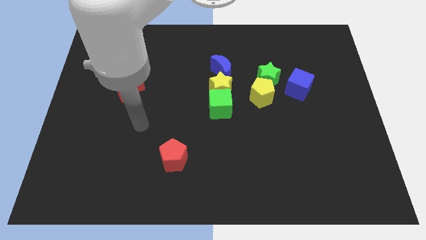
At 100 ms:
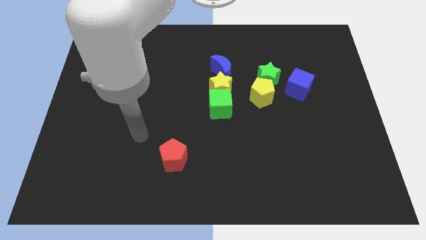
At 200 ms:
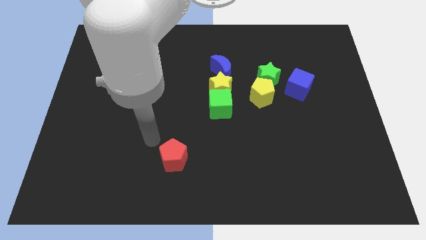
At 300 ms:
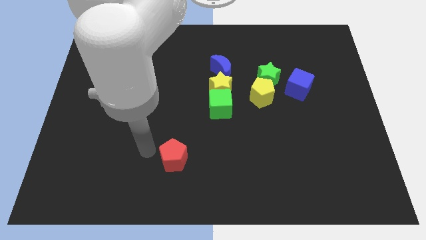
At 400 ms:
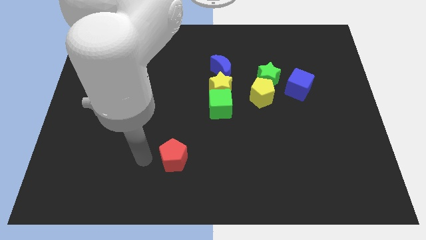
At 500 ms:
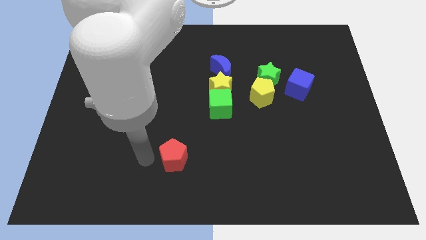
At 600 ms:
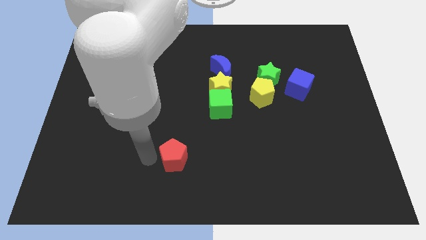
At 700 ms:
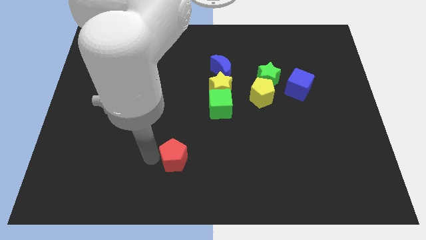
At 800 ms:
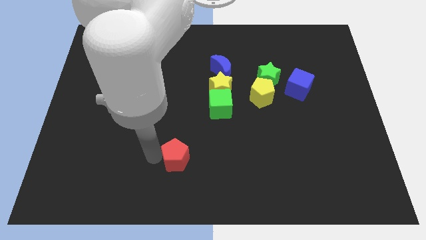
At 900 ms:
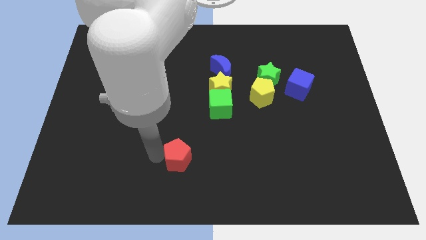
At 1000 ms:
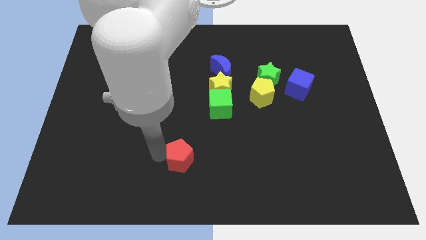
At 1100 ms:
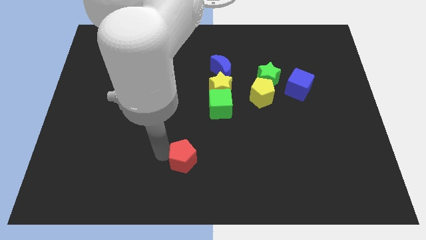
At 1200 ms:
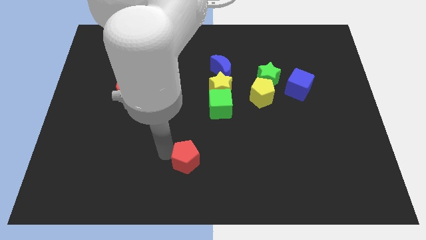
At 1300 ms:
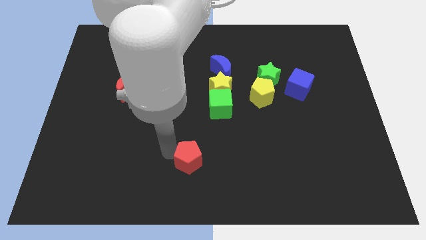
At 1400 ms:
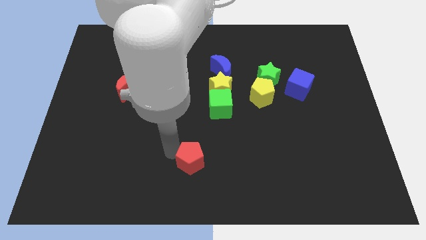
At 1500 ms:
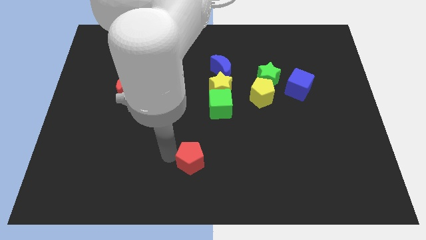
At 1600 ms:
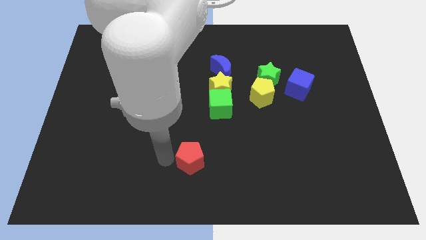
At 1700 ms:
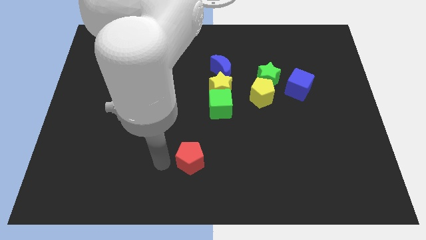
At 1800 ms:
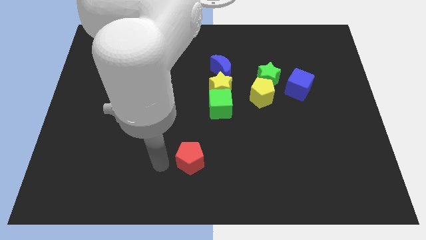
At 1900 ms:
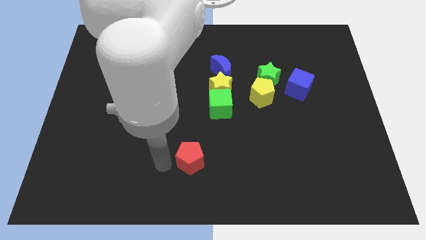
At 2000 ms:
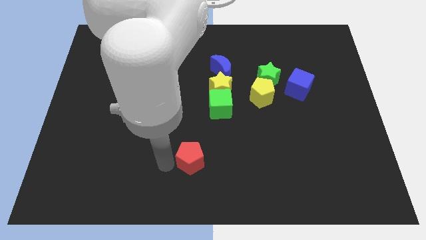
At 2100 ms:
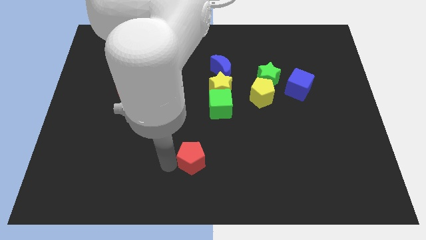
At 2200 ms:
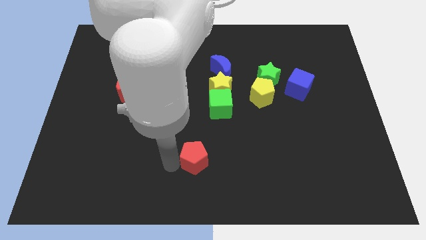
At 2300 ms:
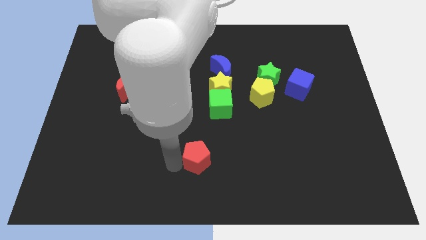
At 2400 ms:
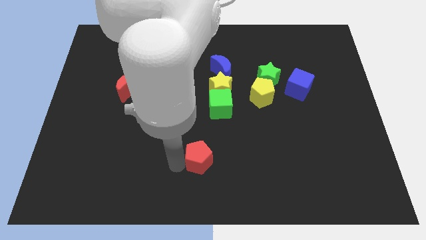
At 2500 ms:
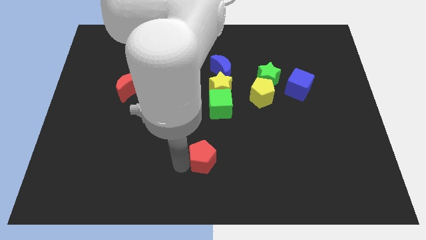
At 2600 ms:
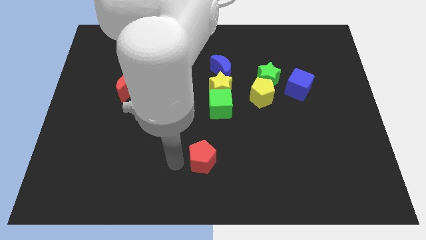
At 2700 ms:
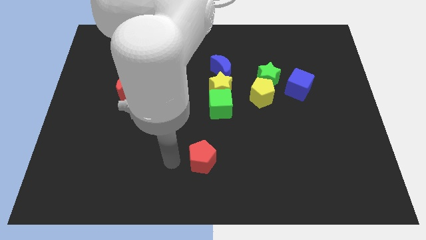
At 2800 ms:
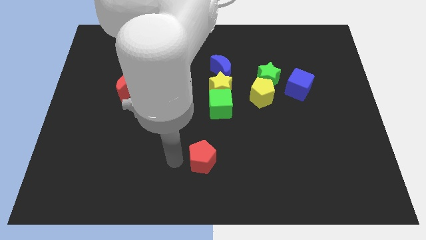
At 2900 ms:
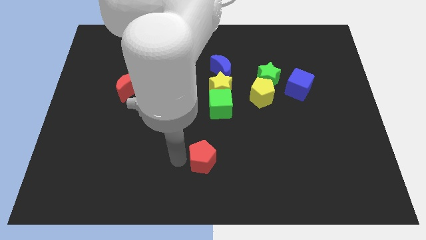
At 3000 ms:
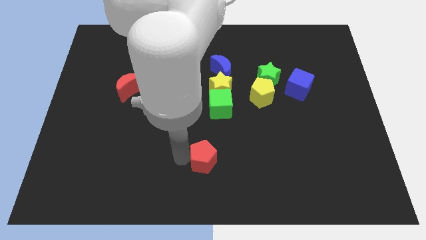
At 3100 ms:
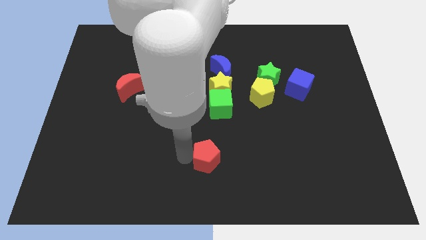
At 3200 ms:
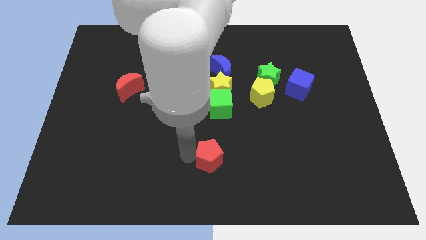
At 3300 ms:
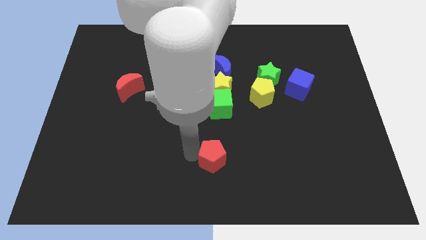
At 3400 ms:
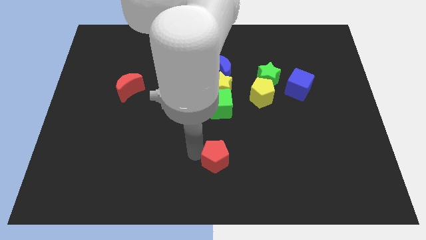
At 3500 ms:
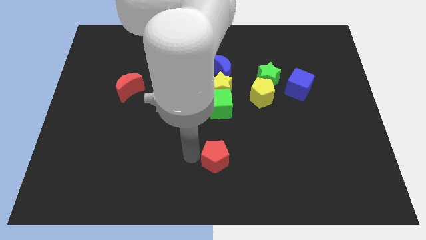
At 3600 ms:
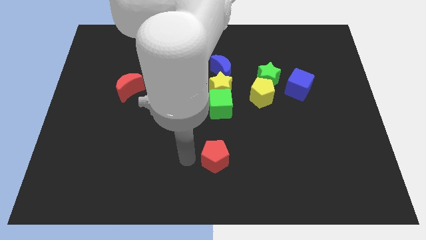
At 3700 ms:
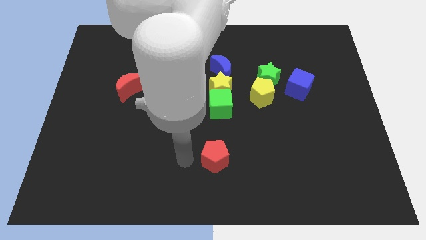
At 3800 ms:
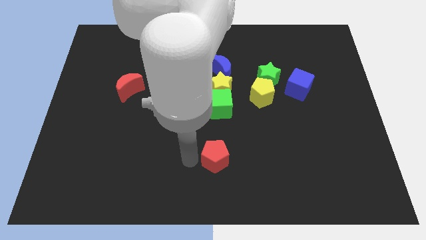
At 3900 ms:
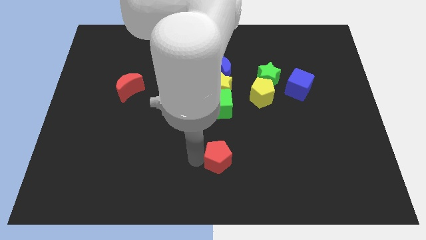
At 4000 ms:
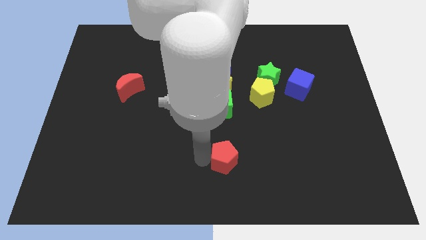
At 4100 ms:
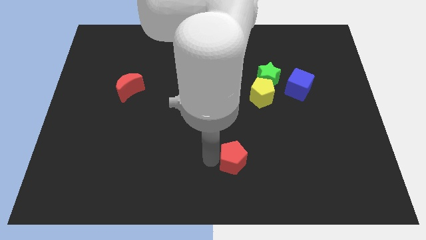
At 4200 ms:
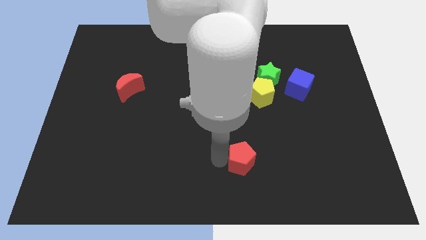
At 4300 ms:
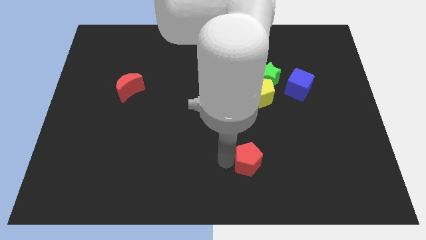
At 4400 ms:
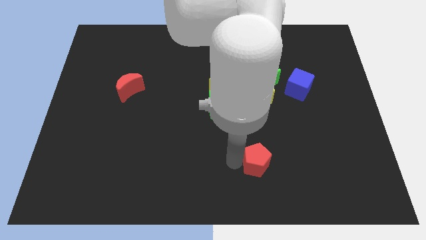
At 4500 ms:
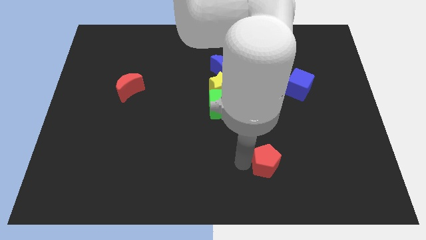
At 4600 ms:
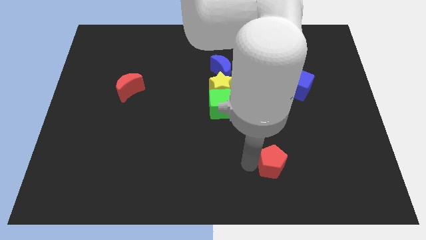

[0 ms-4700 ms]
move the red pentagon to the right

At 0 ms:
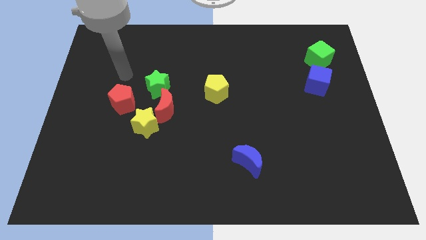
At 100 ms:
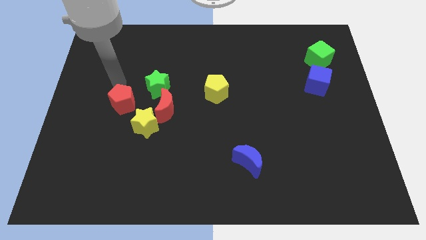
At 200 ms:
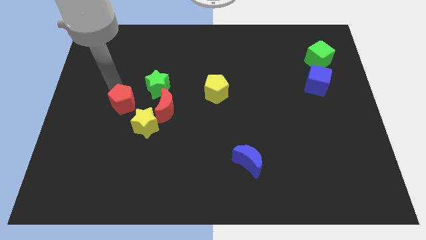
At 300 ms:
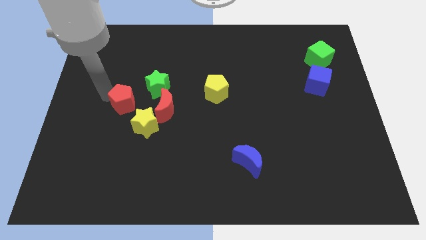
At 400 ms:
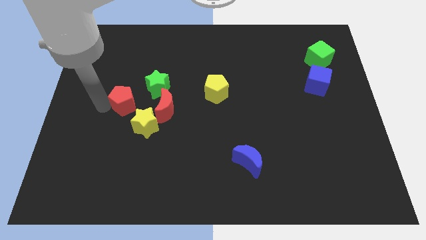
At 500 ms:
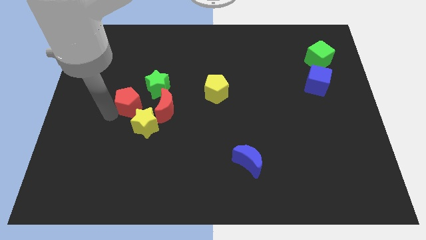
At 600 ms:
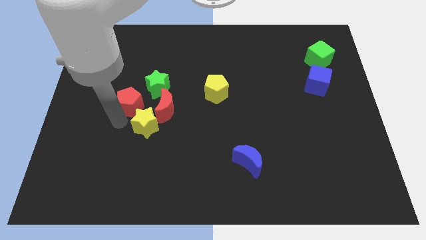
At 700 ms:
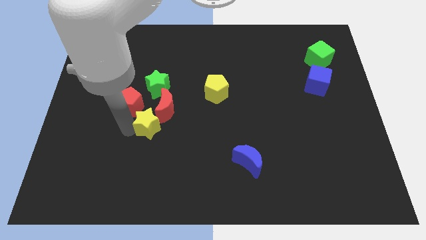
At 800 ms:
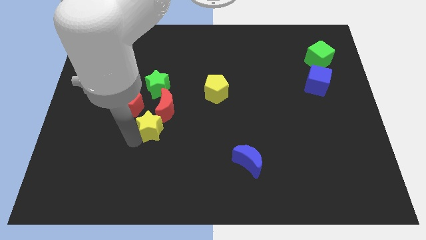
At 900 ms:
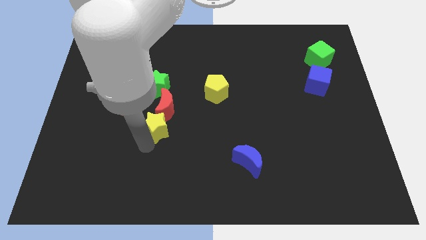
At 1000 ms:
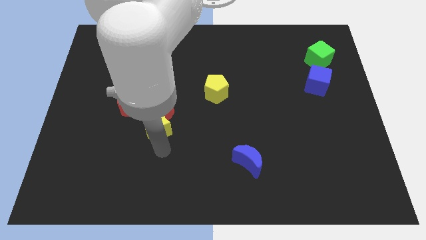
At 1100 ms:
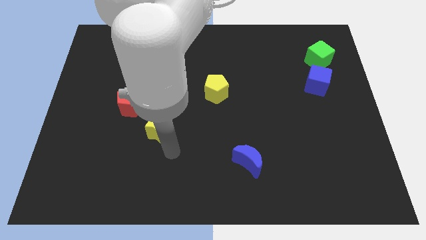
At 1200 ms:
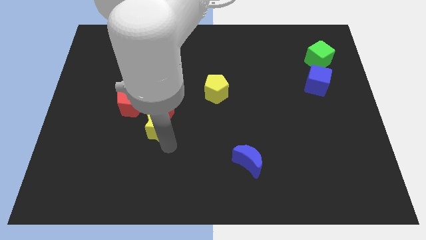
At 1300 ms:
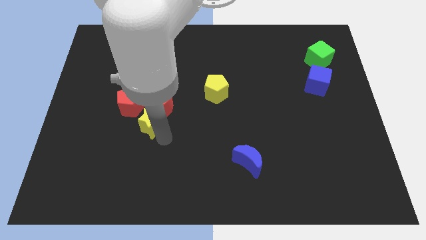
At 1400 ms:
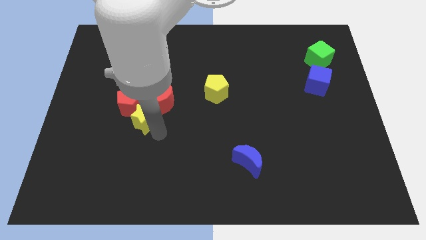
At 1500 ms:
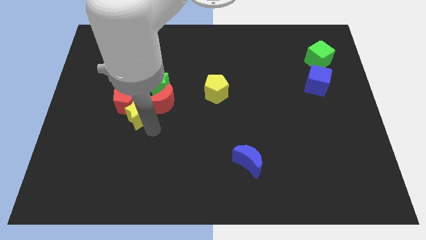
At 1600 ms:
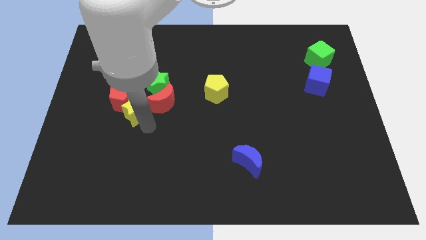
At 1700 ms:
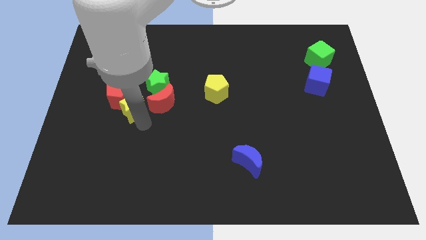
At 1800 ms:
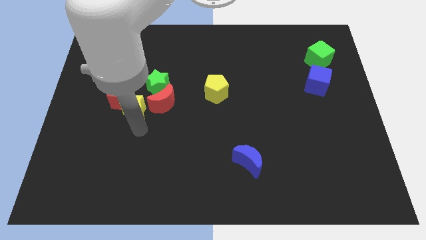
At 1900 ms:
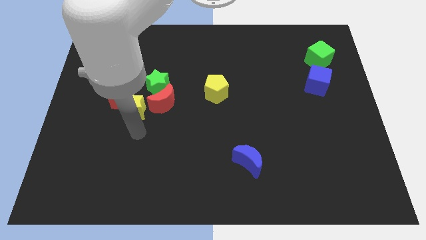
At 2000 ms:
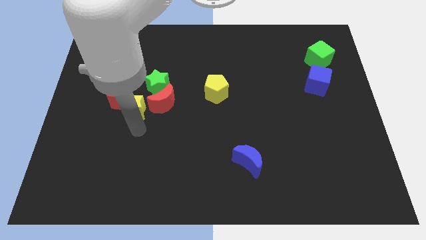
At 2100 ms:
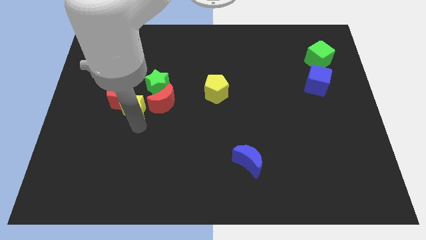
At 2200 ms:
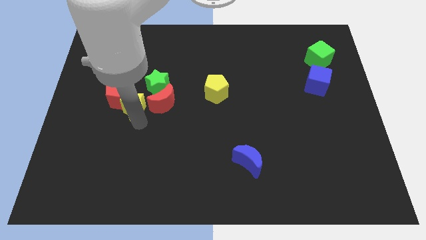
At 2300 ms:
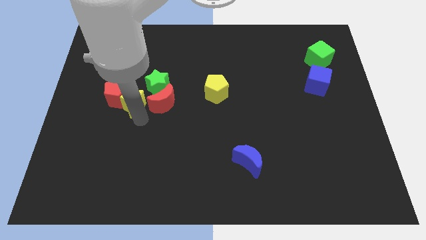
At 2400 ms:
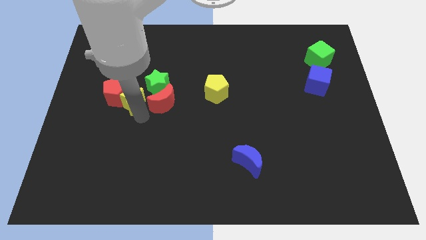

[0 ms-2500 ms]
push the yellow star a bit diagonally up and left

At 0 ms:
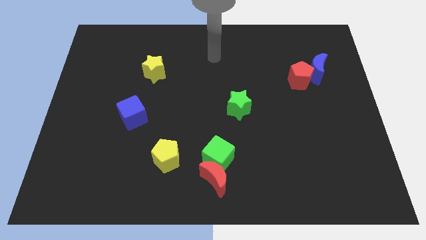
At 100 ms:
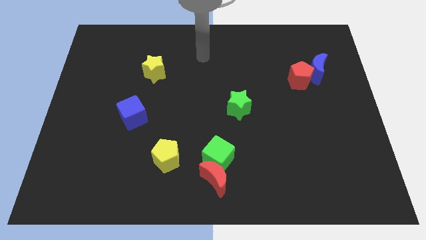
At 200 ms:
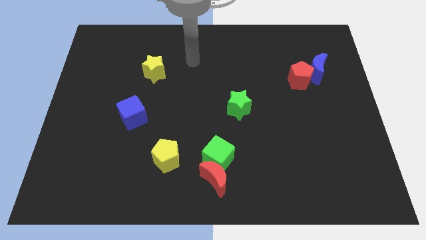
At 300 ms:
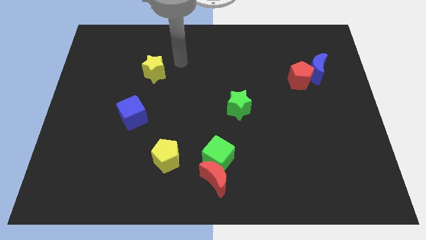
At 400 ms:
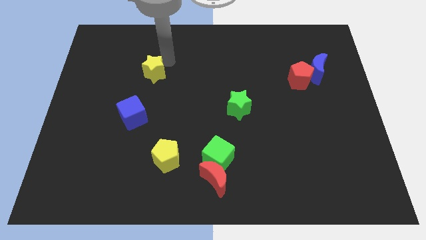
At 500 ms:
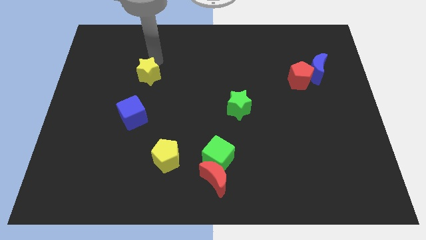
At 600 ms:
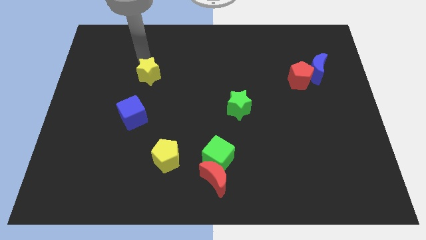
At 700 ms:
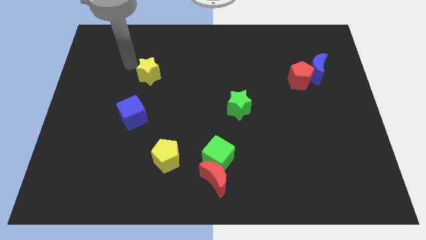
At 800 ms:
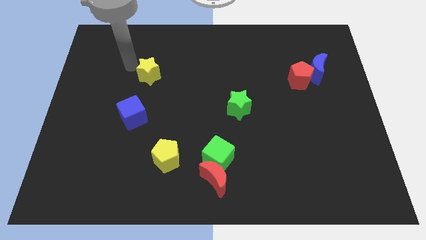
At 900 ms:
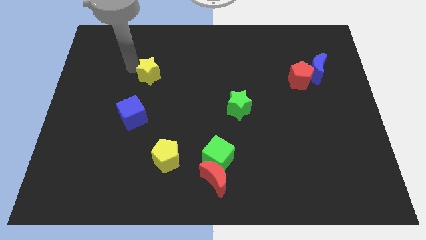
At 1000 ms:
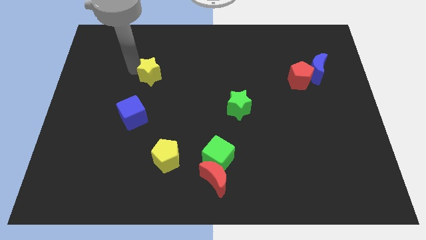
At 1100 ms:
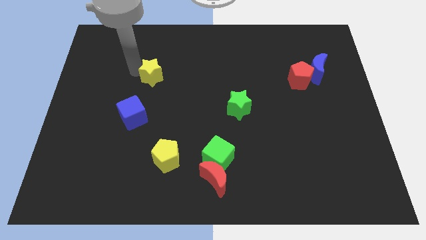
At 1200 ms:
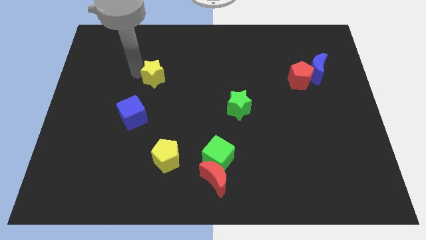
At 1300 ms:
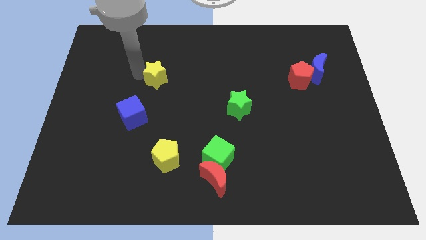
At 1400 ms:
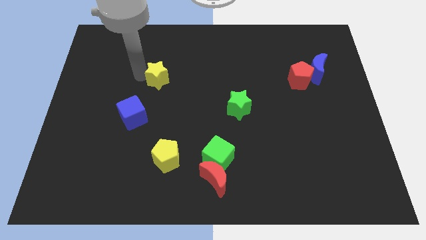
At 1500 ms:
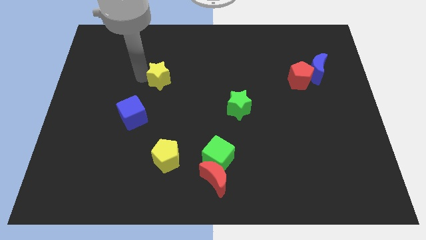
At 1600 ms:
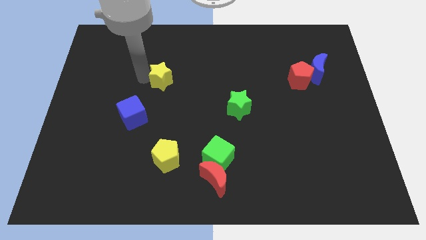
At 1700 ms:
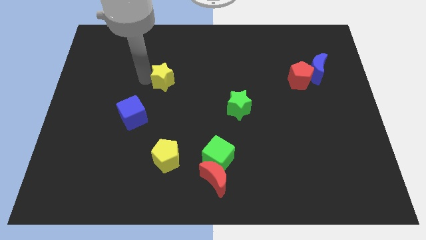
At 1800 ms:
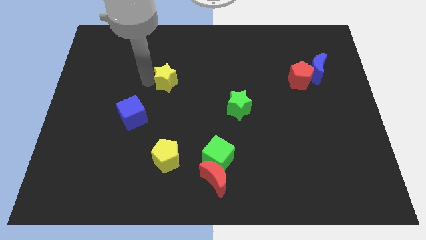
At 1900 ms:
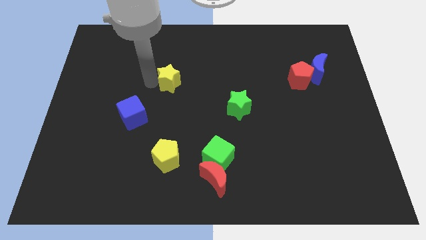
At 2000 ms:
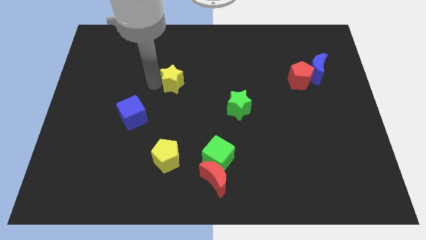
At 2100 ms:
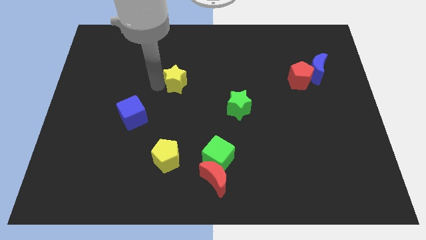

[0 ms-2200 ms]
move the yellow star a little bit diagonally downwards and right
